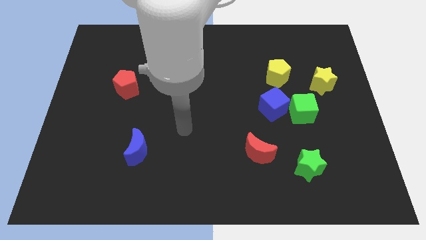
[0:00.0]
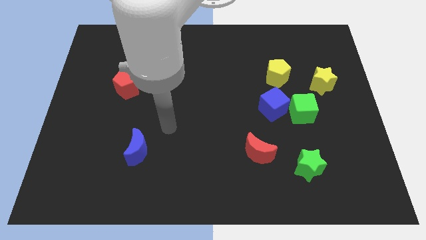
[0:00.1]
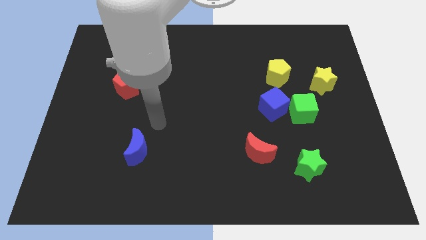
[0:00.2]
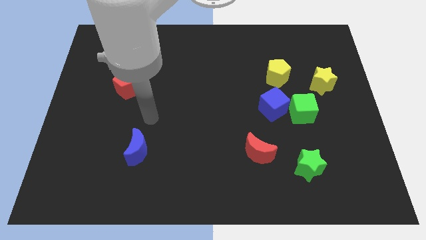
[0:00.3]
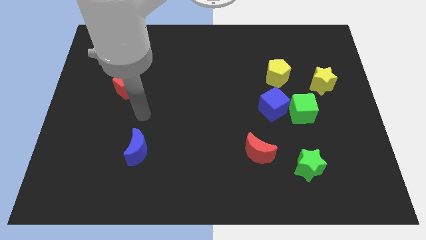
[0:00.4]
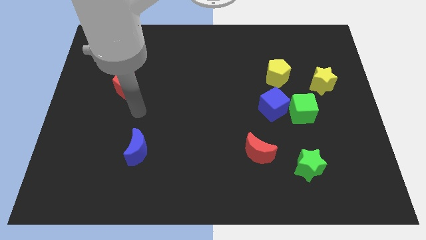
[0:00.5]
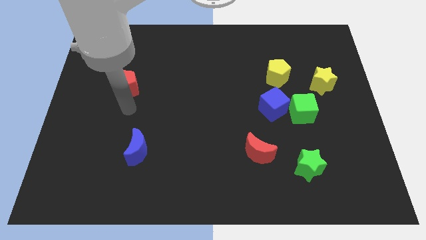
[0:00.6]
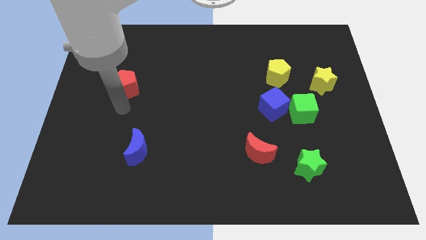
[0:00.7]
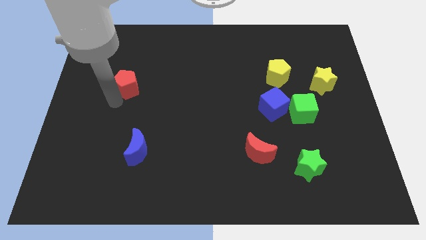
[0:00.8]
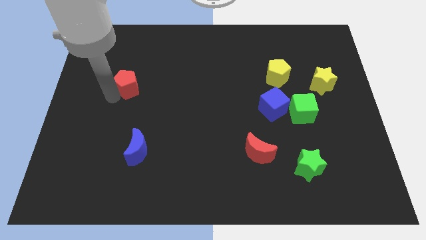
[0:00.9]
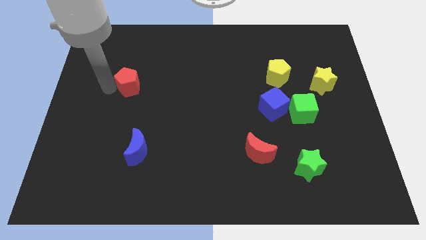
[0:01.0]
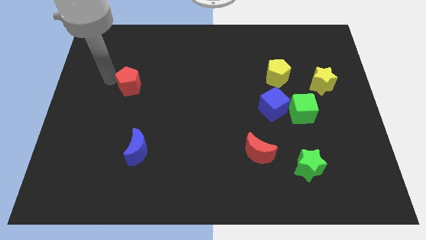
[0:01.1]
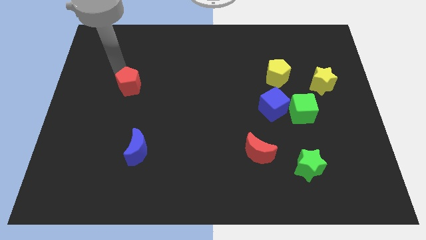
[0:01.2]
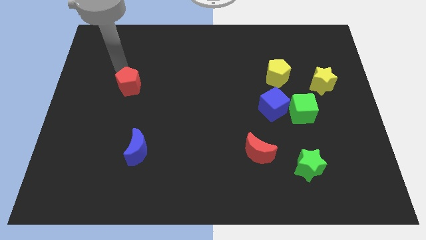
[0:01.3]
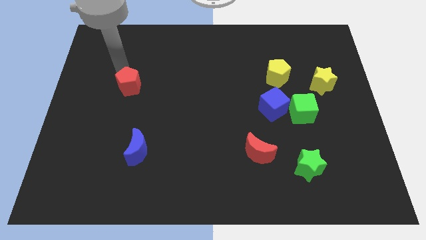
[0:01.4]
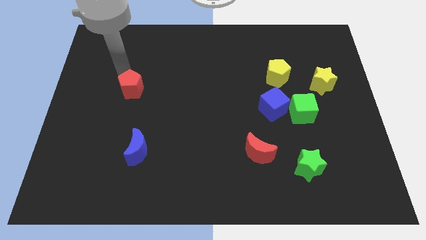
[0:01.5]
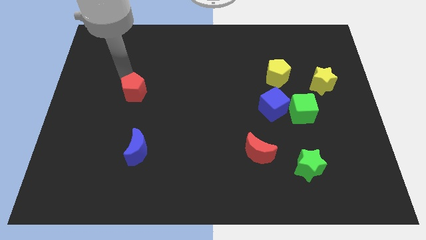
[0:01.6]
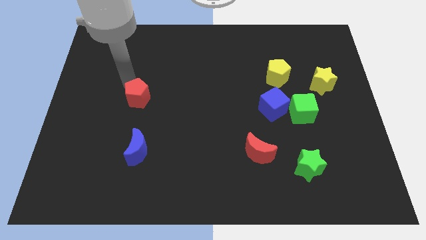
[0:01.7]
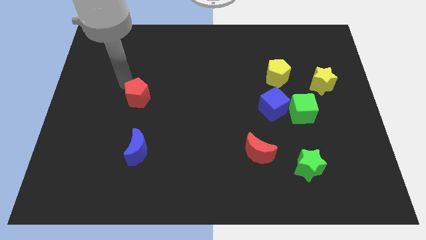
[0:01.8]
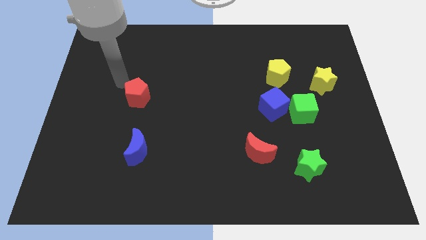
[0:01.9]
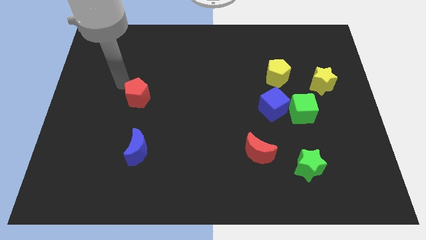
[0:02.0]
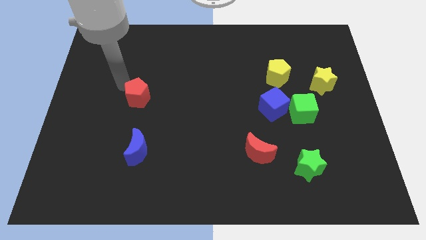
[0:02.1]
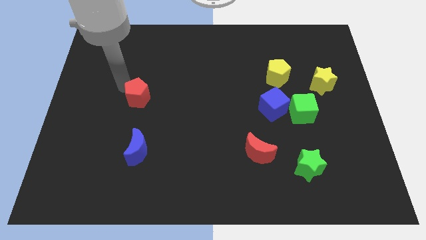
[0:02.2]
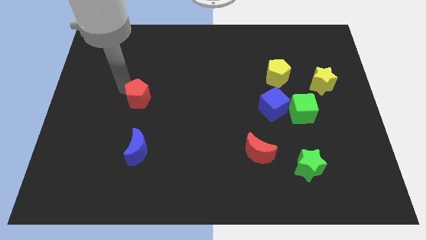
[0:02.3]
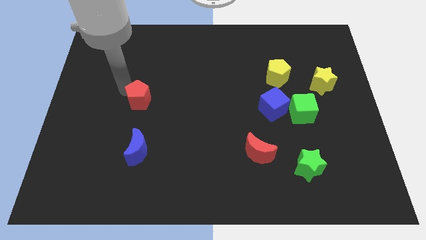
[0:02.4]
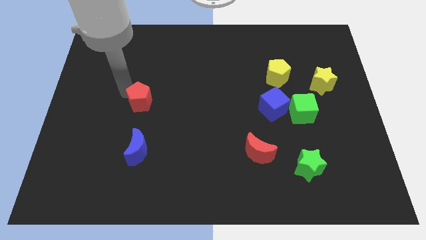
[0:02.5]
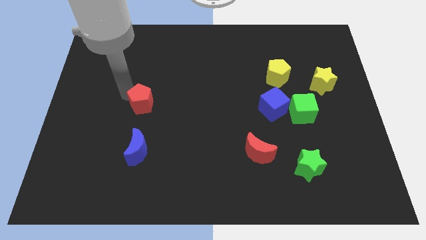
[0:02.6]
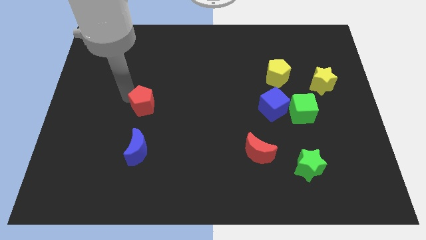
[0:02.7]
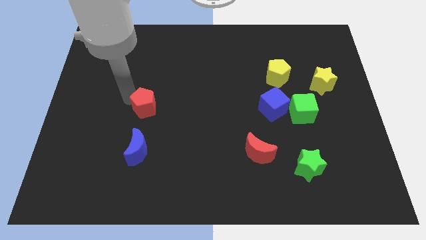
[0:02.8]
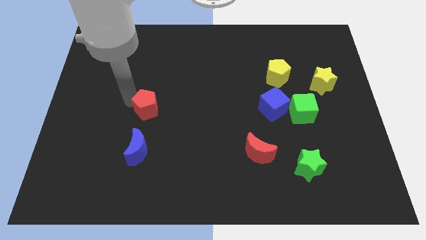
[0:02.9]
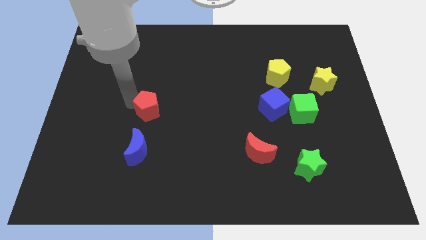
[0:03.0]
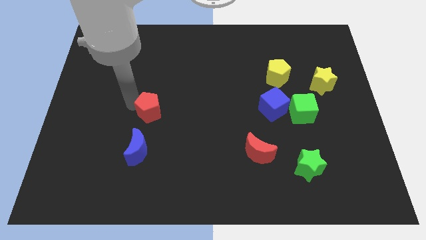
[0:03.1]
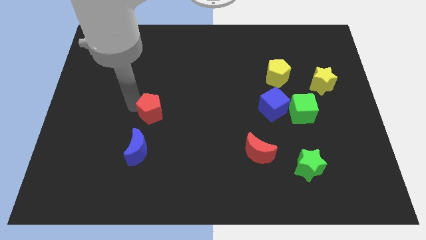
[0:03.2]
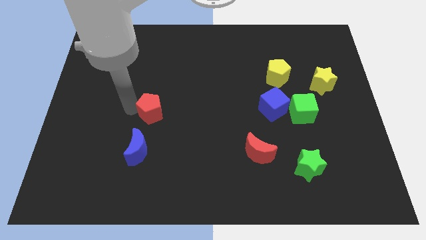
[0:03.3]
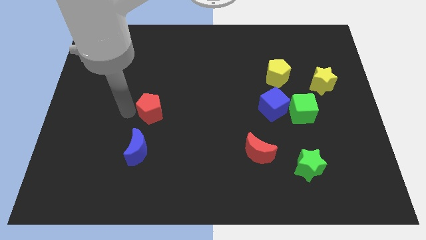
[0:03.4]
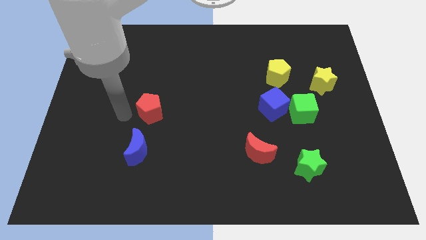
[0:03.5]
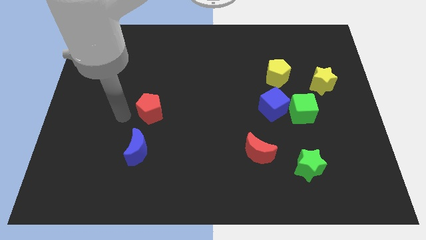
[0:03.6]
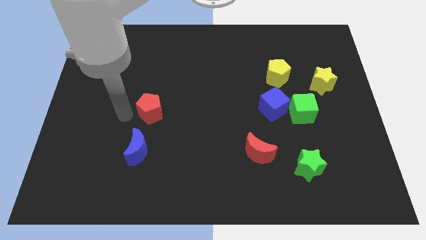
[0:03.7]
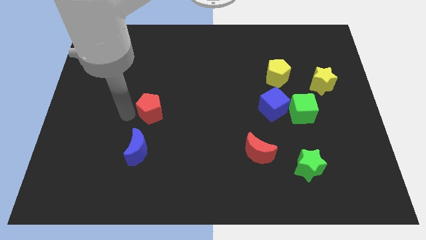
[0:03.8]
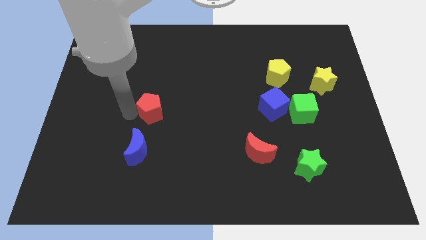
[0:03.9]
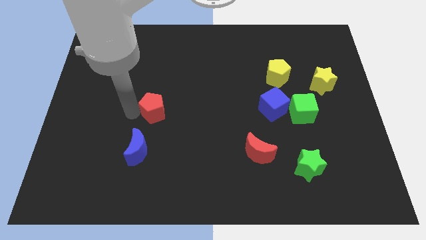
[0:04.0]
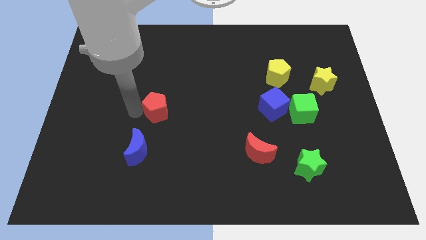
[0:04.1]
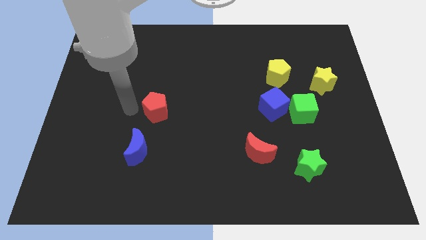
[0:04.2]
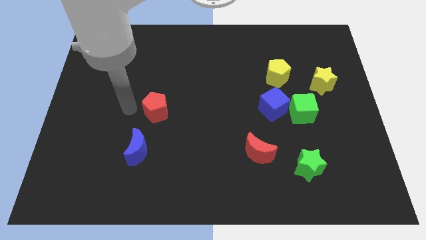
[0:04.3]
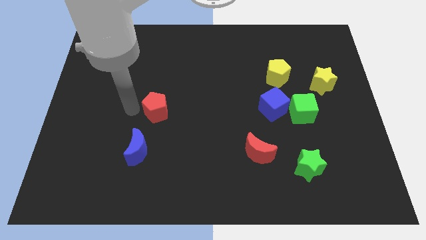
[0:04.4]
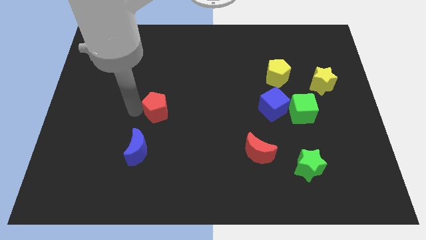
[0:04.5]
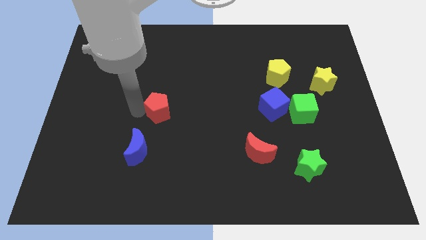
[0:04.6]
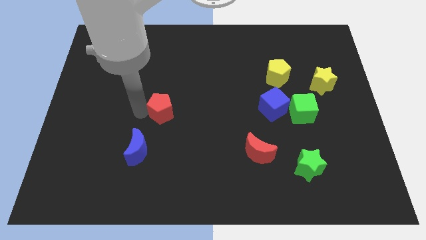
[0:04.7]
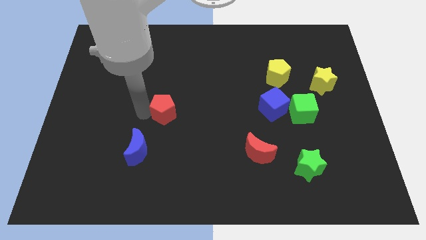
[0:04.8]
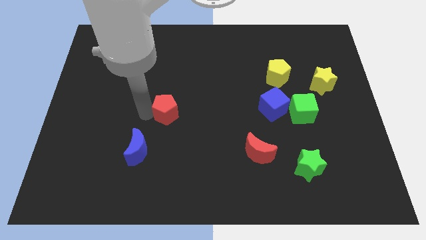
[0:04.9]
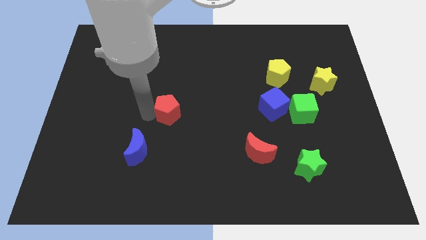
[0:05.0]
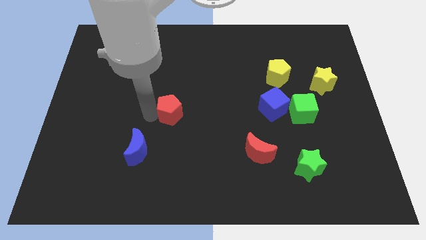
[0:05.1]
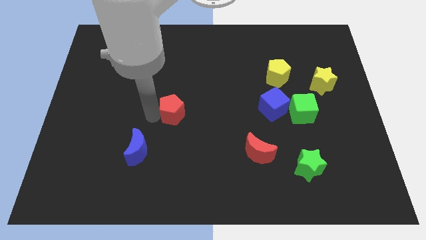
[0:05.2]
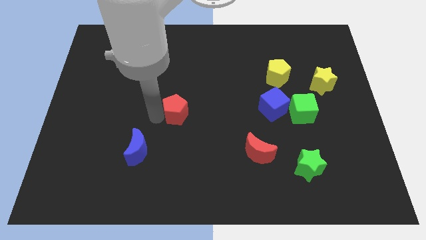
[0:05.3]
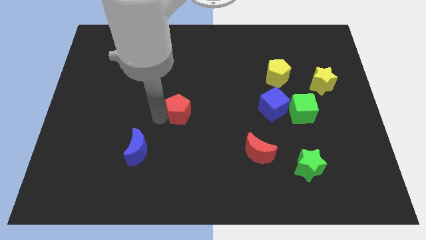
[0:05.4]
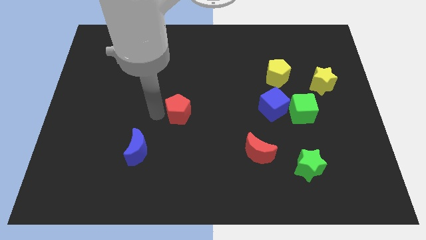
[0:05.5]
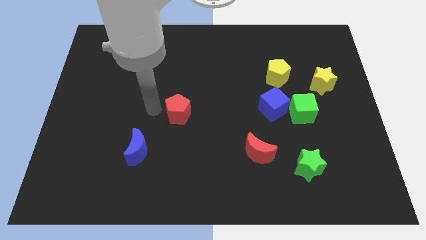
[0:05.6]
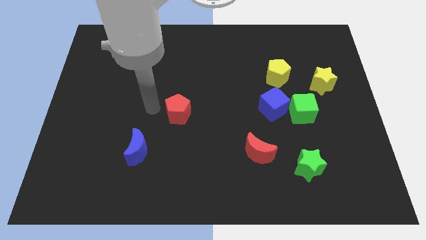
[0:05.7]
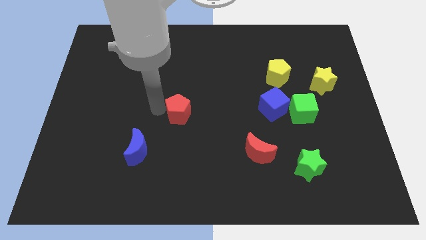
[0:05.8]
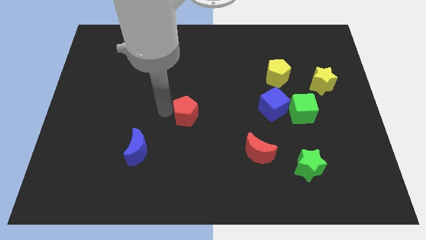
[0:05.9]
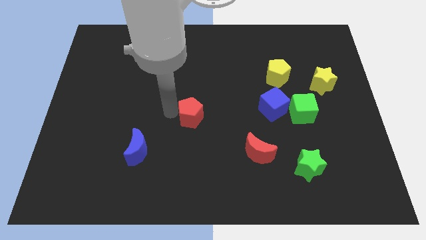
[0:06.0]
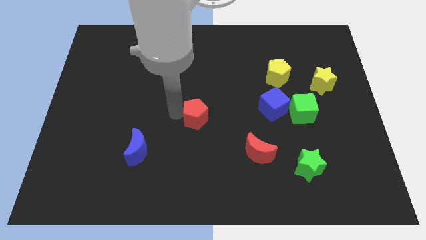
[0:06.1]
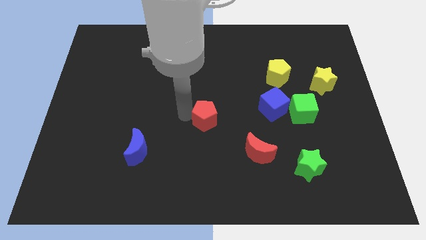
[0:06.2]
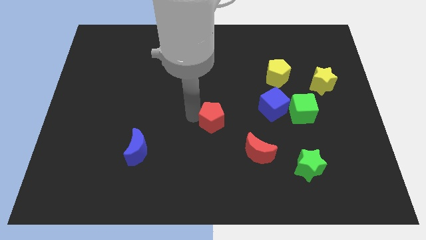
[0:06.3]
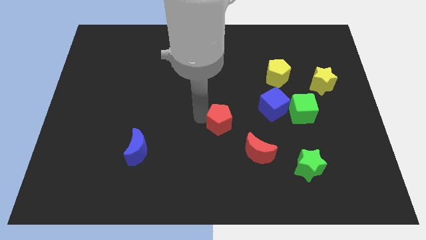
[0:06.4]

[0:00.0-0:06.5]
move the red pentagon to the top left of the red moon
